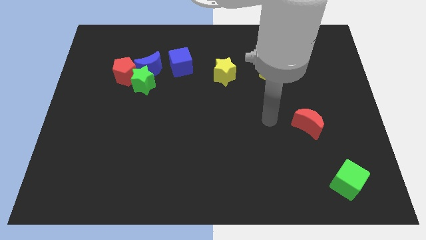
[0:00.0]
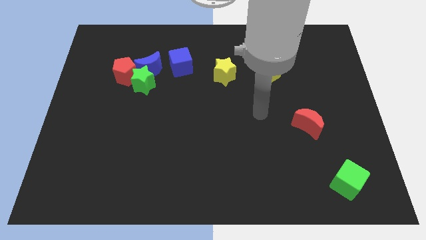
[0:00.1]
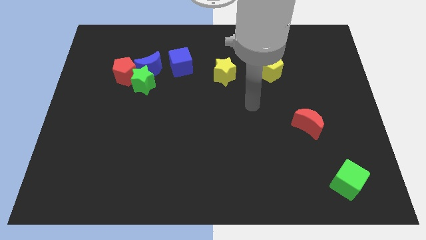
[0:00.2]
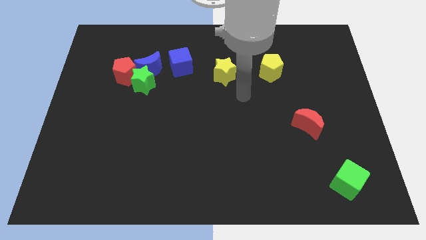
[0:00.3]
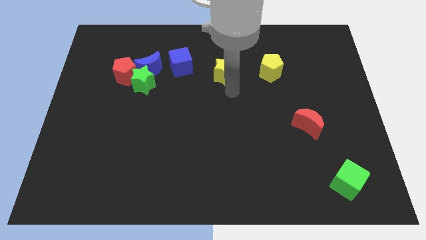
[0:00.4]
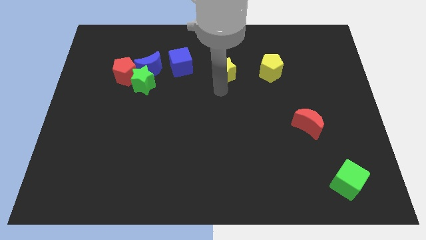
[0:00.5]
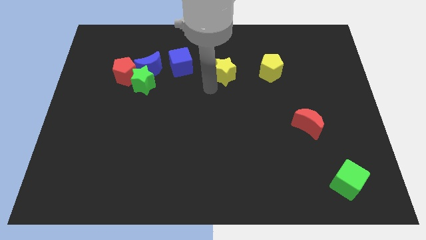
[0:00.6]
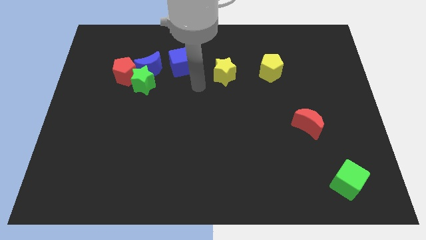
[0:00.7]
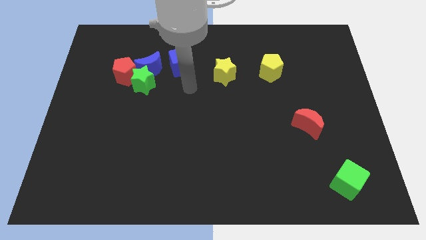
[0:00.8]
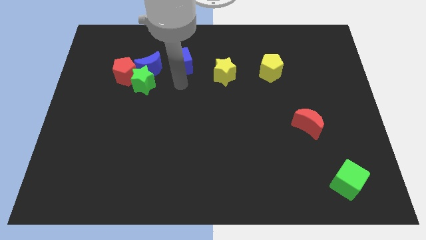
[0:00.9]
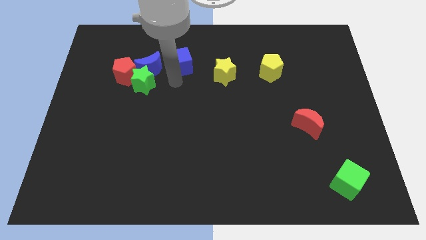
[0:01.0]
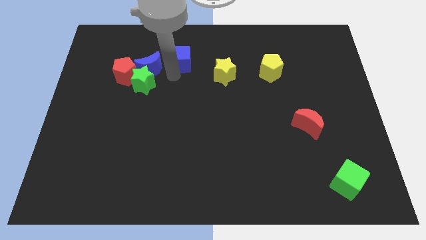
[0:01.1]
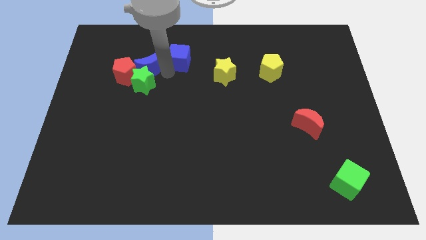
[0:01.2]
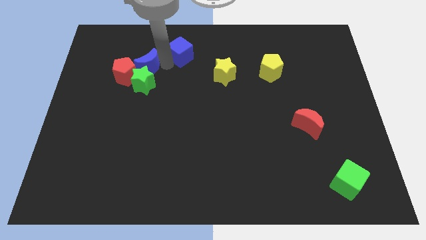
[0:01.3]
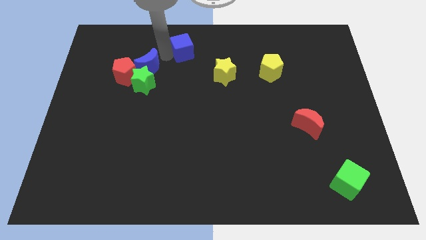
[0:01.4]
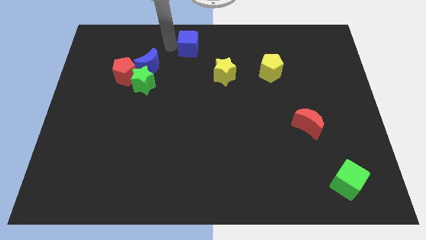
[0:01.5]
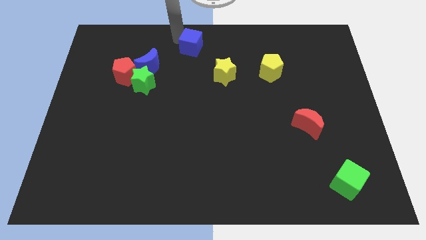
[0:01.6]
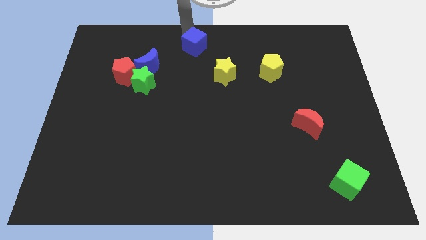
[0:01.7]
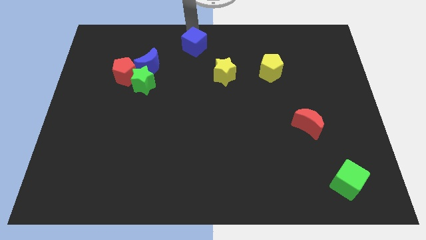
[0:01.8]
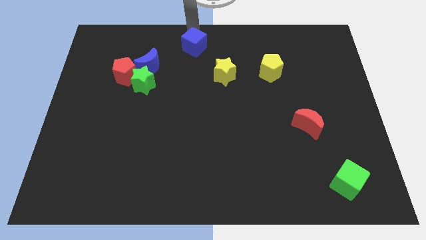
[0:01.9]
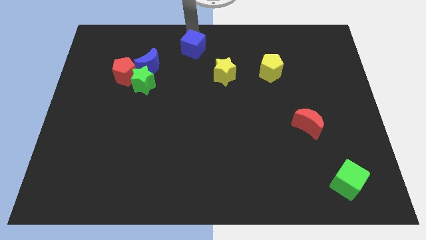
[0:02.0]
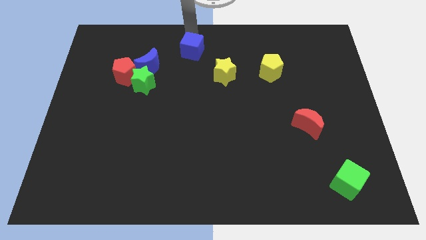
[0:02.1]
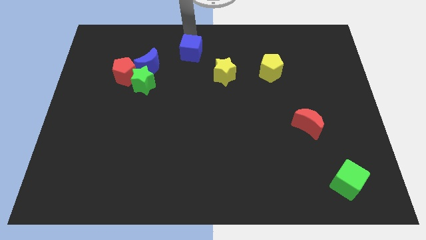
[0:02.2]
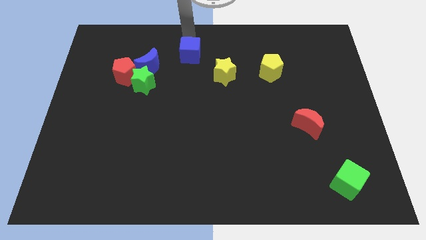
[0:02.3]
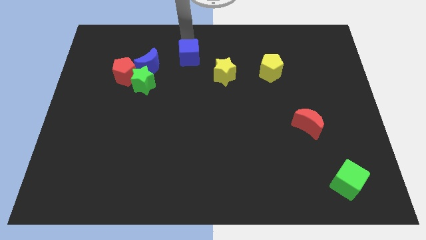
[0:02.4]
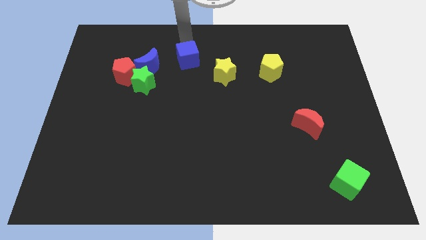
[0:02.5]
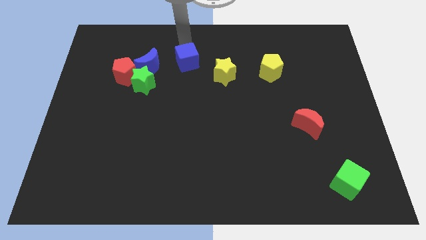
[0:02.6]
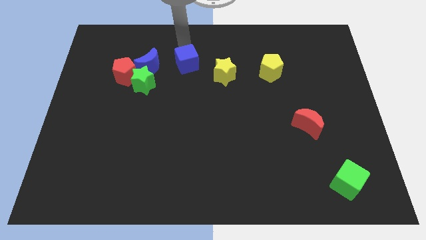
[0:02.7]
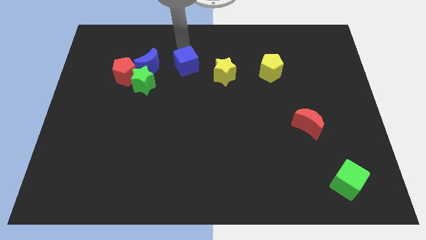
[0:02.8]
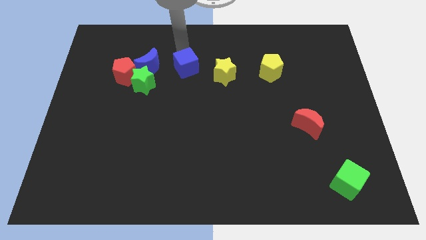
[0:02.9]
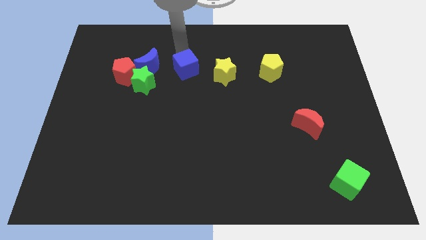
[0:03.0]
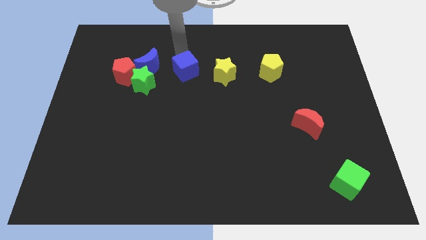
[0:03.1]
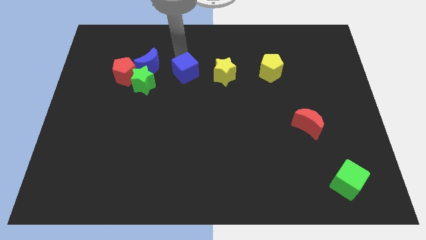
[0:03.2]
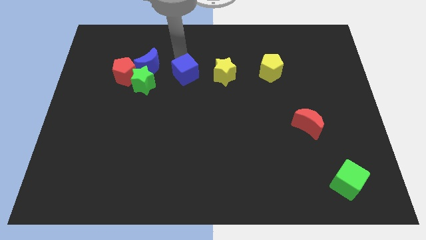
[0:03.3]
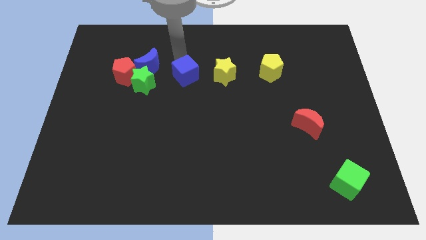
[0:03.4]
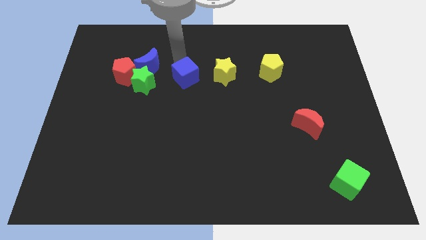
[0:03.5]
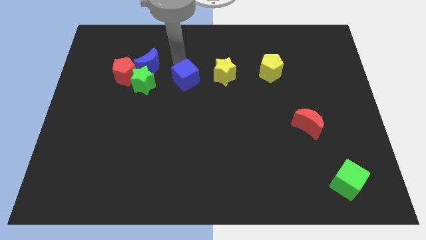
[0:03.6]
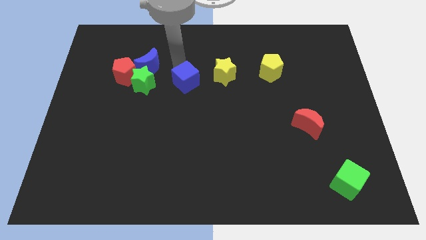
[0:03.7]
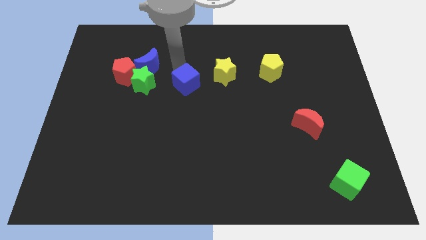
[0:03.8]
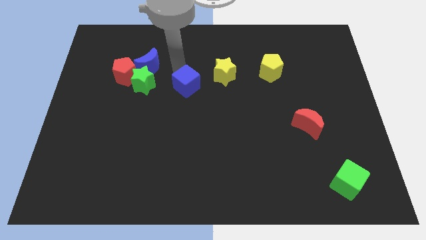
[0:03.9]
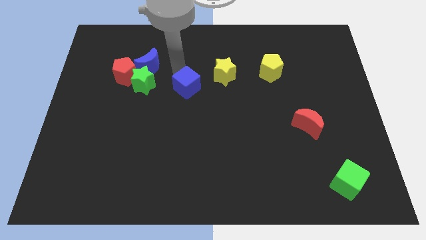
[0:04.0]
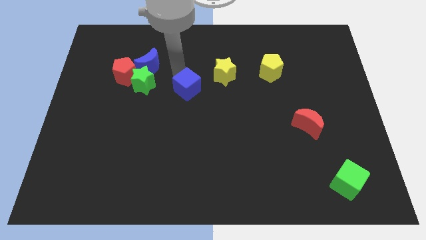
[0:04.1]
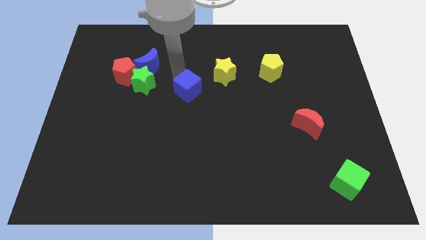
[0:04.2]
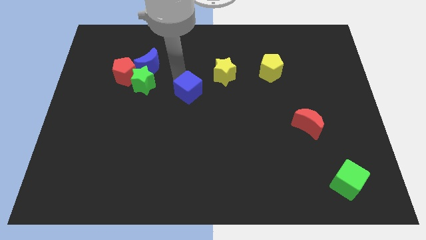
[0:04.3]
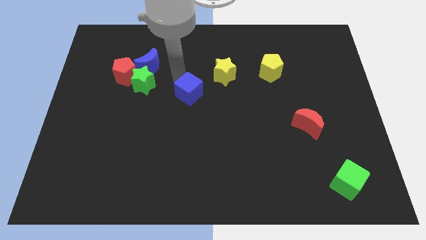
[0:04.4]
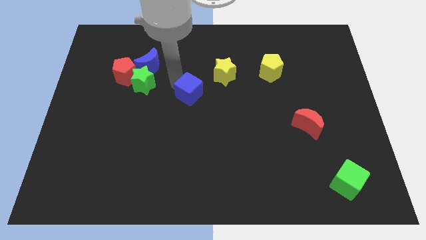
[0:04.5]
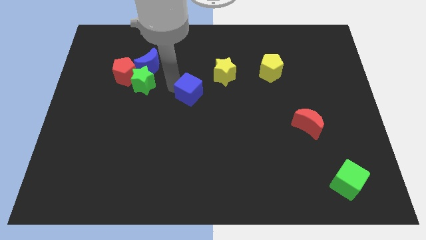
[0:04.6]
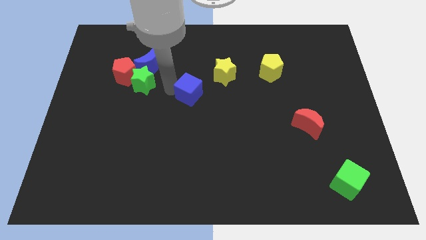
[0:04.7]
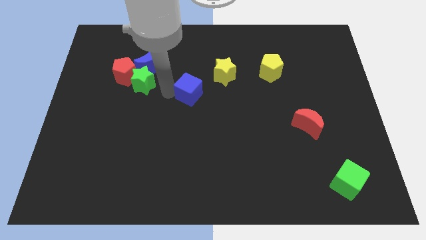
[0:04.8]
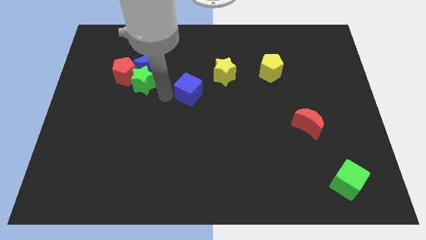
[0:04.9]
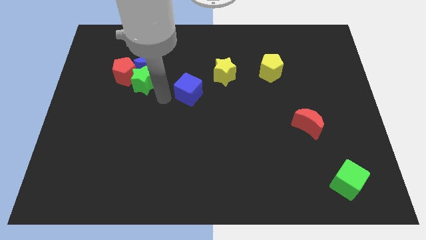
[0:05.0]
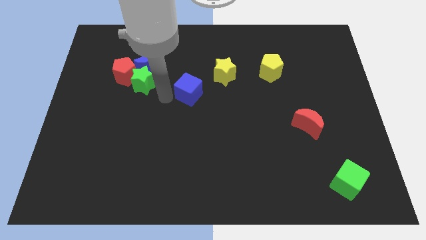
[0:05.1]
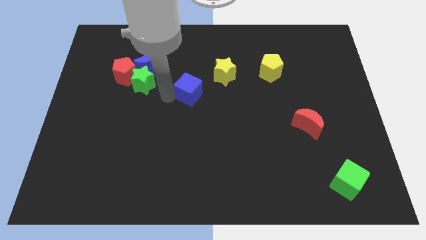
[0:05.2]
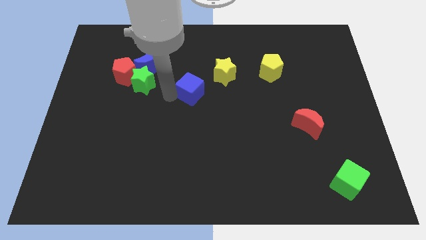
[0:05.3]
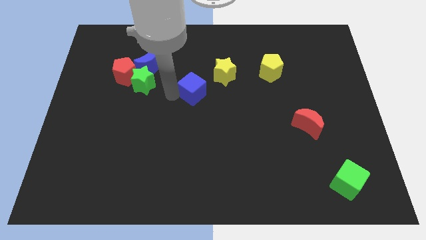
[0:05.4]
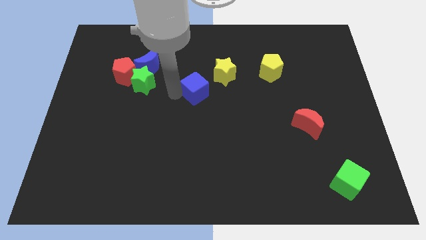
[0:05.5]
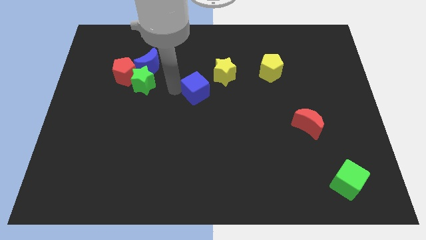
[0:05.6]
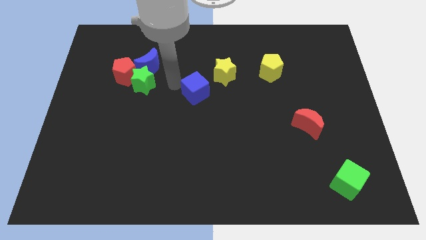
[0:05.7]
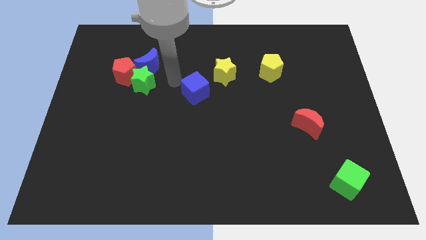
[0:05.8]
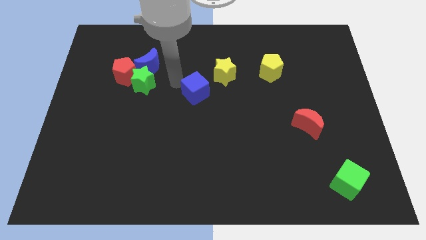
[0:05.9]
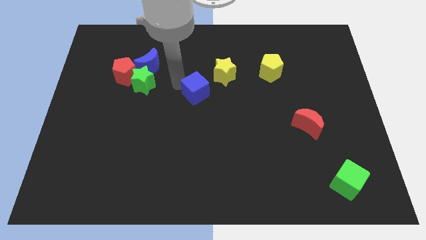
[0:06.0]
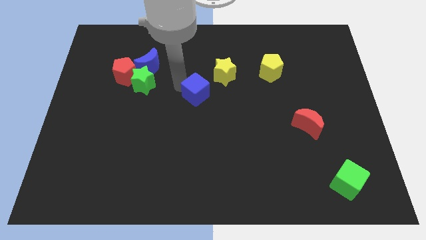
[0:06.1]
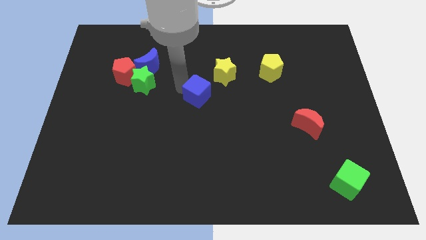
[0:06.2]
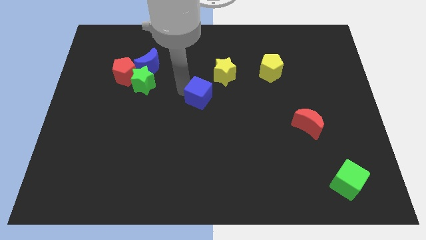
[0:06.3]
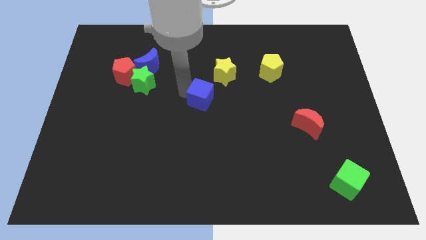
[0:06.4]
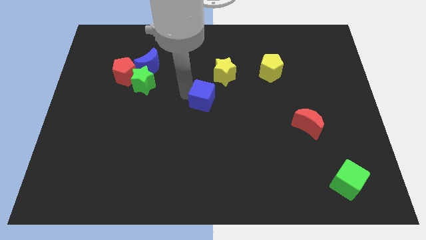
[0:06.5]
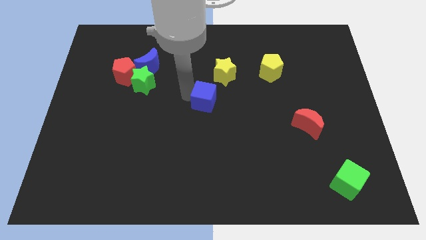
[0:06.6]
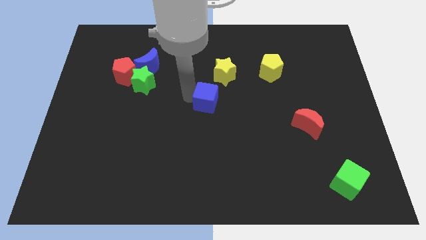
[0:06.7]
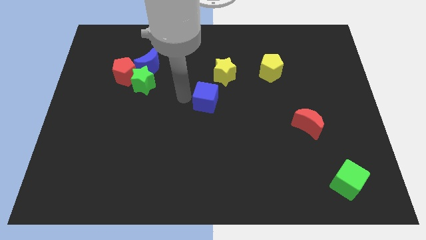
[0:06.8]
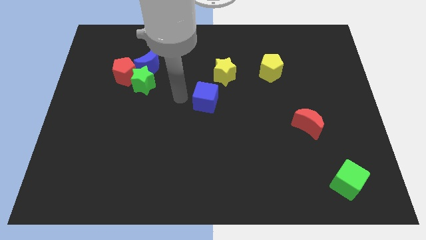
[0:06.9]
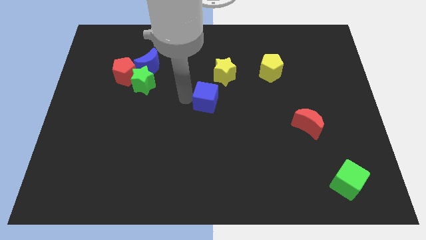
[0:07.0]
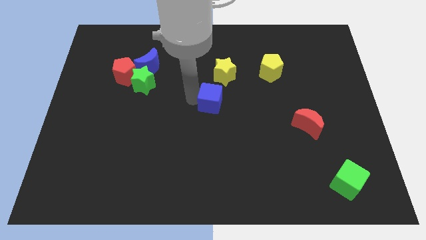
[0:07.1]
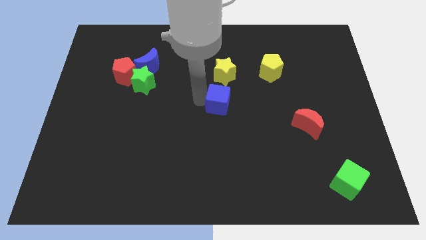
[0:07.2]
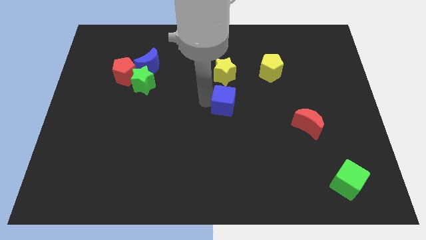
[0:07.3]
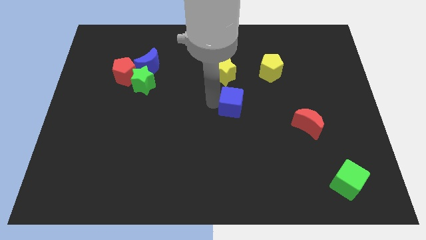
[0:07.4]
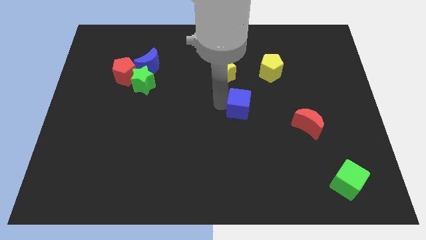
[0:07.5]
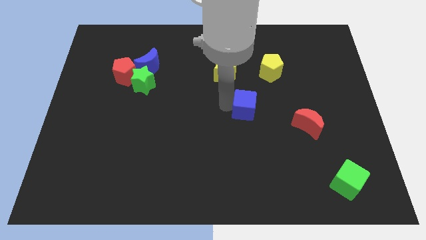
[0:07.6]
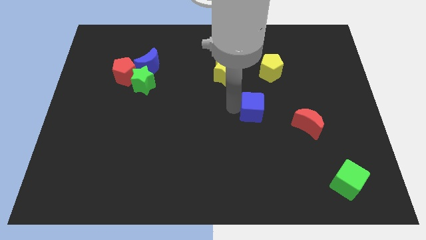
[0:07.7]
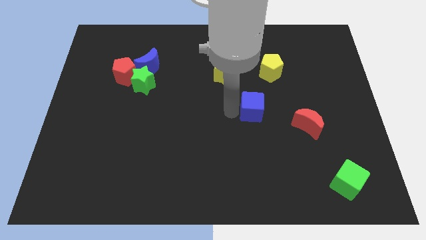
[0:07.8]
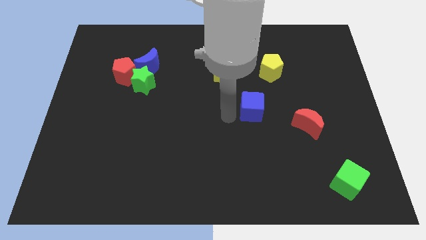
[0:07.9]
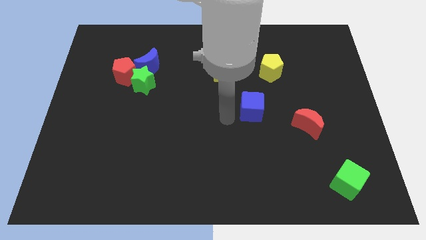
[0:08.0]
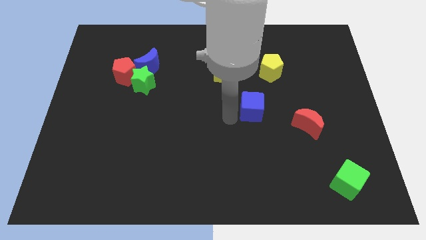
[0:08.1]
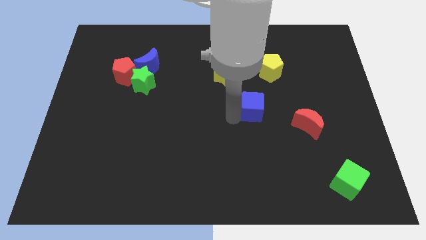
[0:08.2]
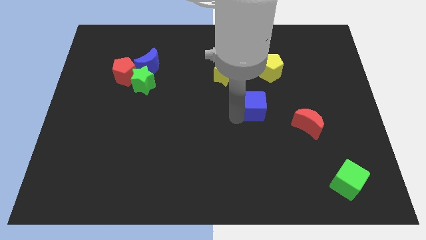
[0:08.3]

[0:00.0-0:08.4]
put the blue cube to the bottom side of the yellow pentagon
